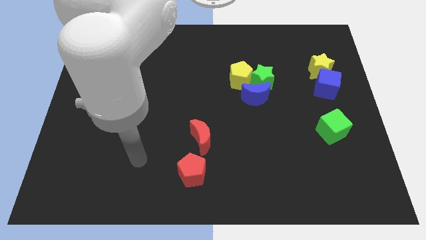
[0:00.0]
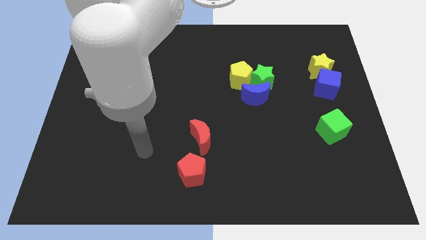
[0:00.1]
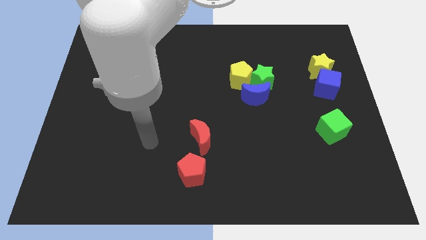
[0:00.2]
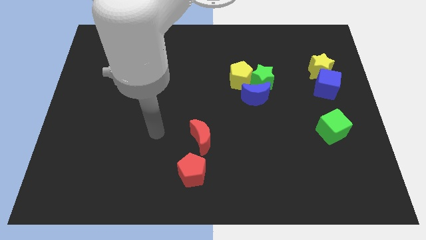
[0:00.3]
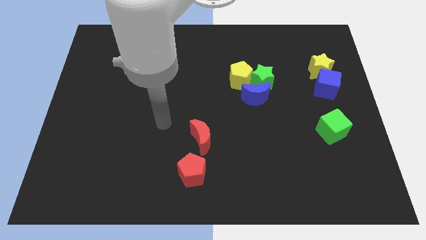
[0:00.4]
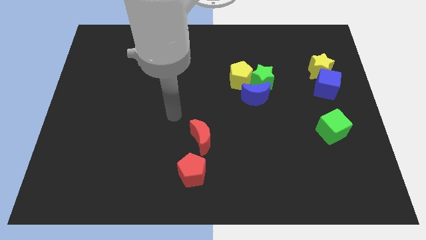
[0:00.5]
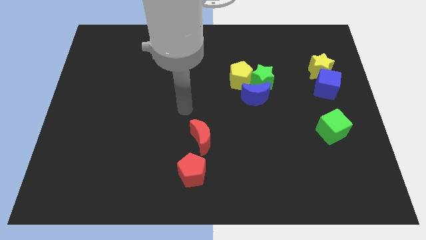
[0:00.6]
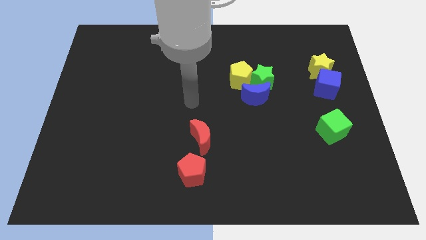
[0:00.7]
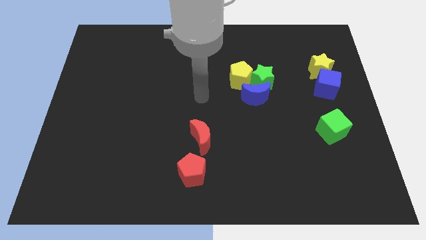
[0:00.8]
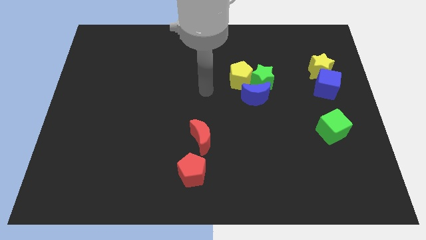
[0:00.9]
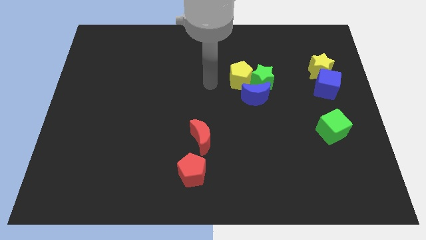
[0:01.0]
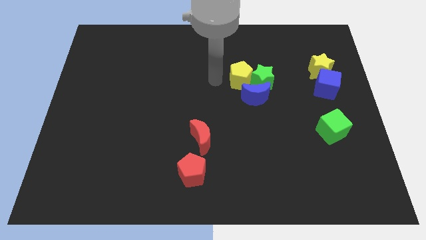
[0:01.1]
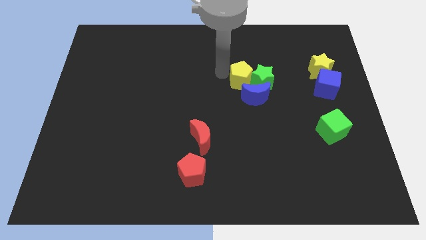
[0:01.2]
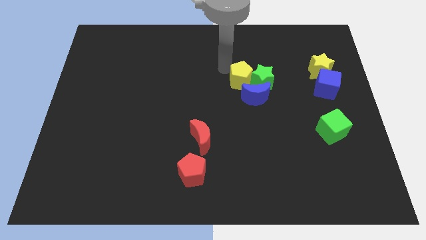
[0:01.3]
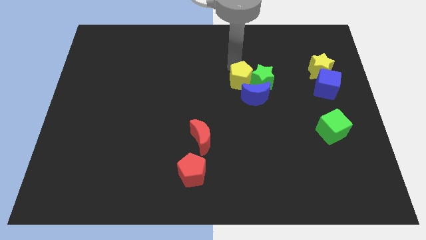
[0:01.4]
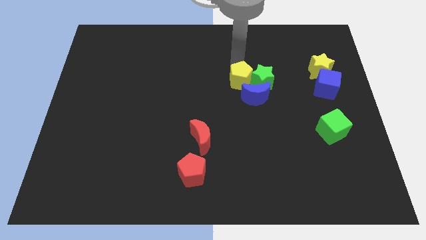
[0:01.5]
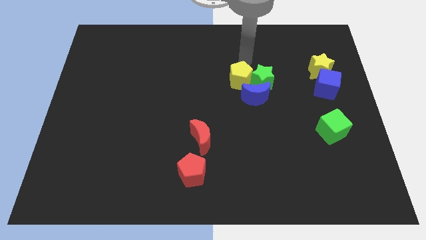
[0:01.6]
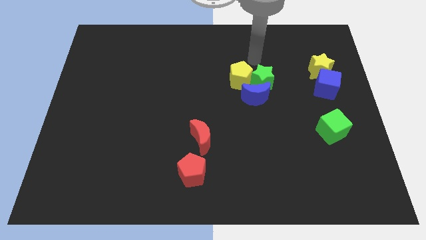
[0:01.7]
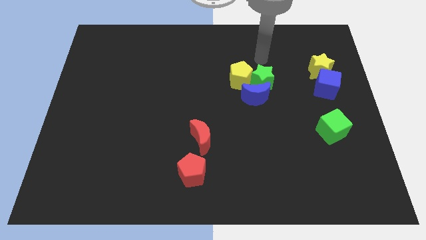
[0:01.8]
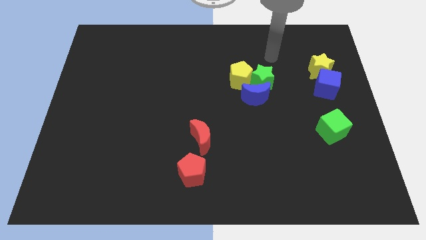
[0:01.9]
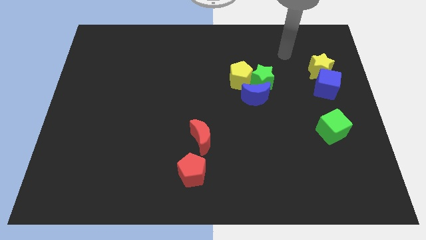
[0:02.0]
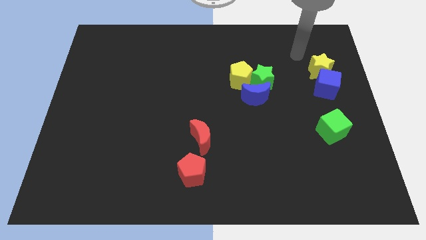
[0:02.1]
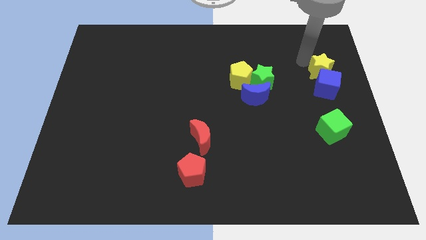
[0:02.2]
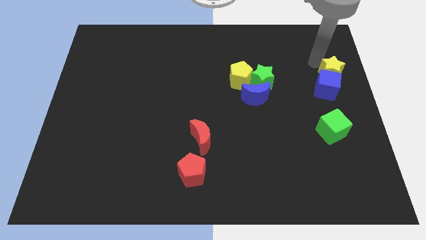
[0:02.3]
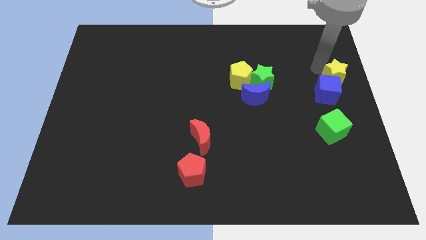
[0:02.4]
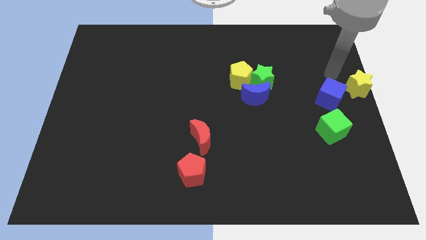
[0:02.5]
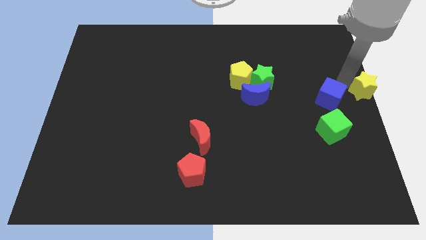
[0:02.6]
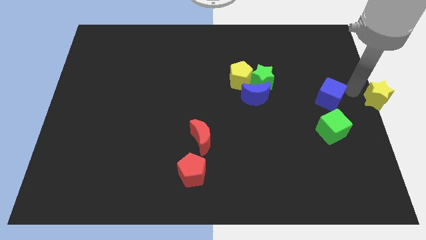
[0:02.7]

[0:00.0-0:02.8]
separate the blue cube from the yellow star

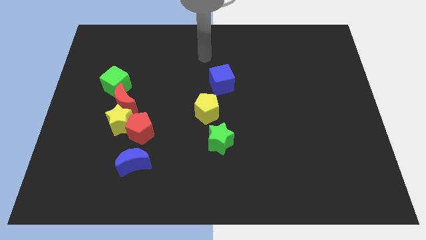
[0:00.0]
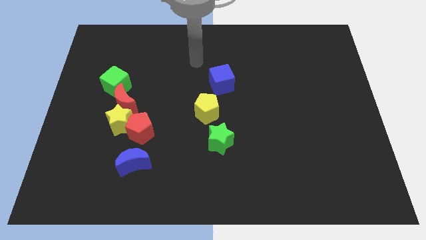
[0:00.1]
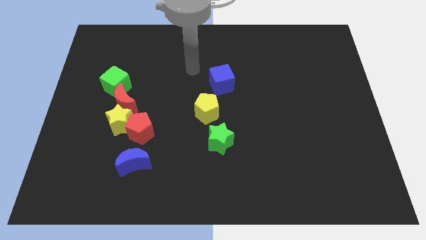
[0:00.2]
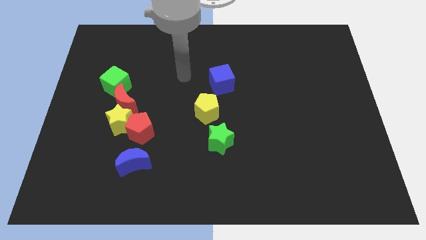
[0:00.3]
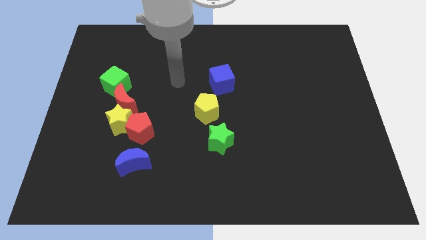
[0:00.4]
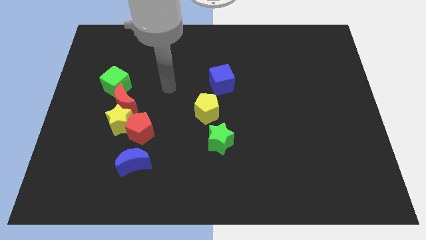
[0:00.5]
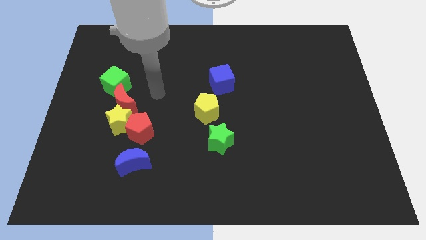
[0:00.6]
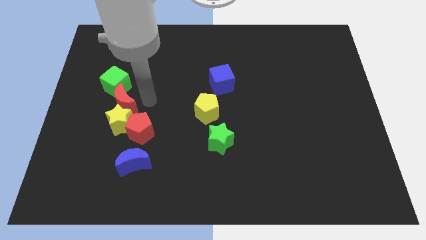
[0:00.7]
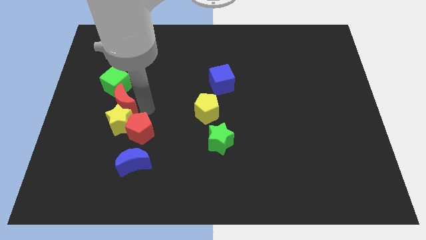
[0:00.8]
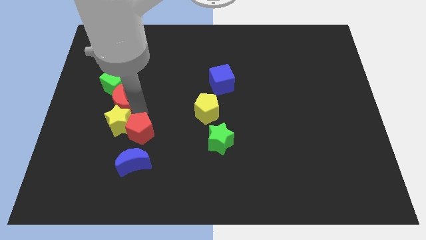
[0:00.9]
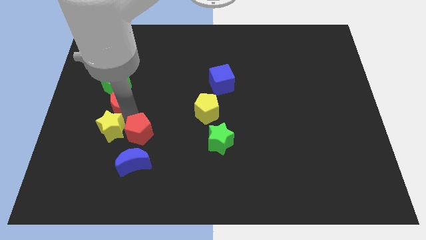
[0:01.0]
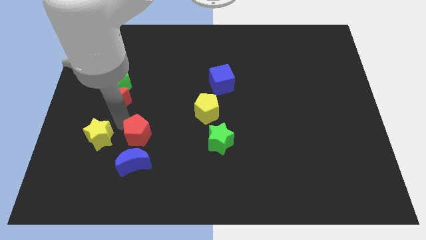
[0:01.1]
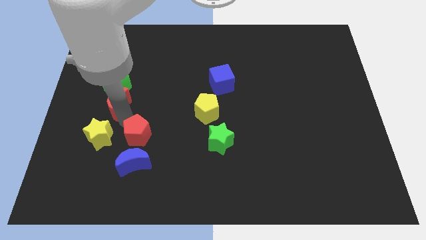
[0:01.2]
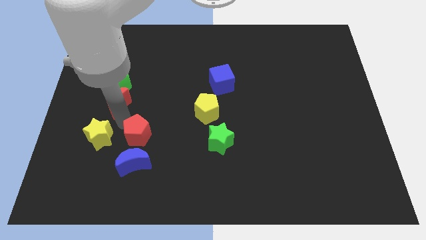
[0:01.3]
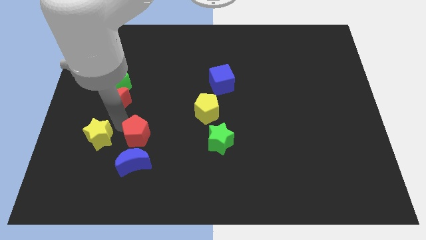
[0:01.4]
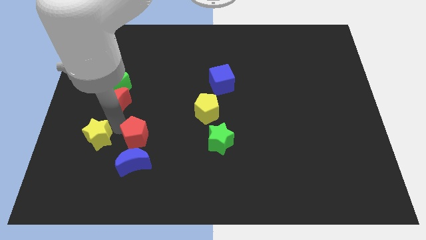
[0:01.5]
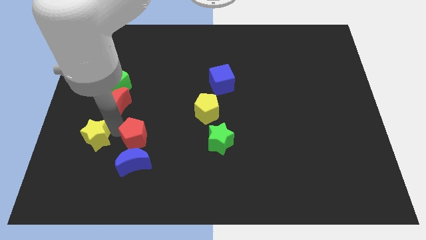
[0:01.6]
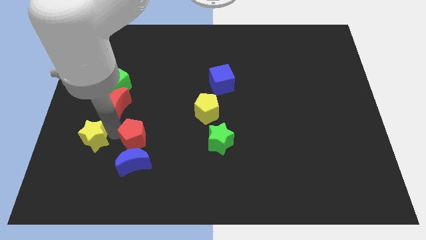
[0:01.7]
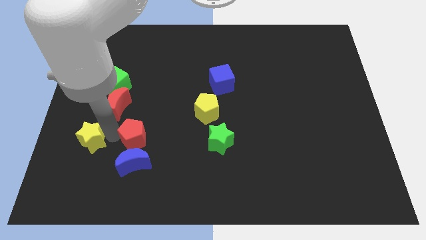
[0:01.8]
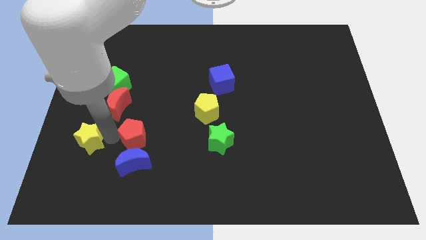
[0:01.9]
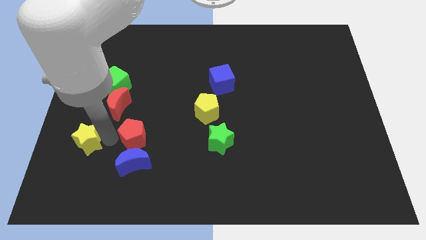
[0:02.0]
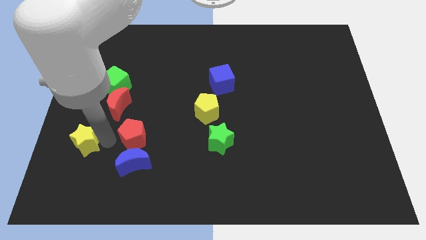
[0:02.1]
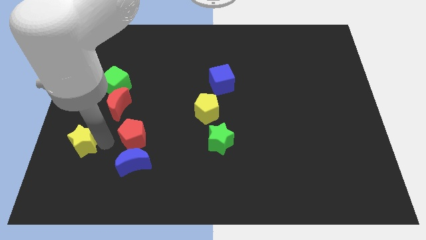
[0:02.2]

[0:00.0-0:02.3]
move the yellow star away from the red pentagon and red moon

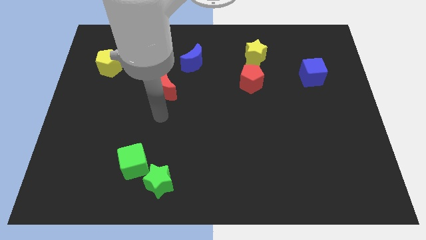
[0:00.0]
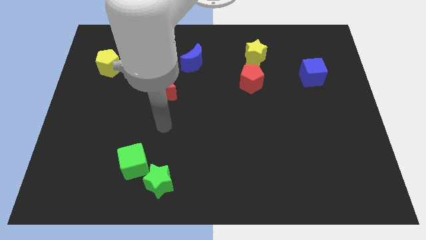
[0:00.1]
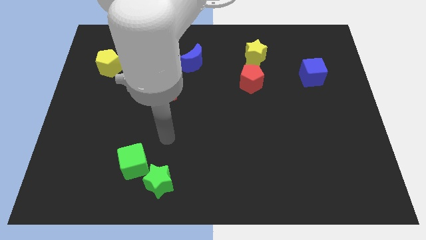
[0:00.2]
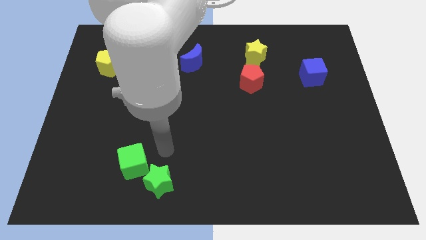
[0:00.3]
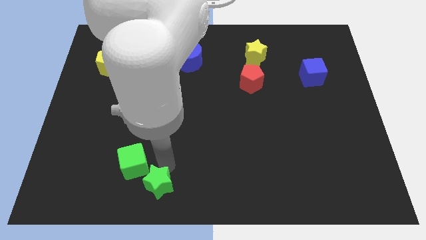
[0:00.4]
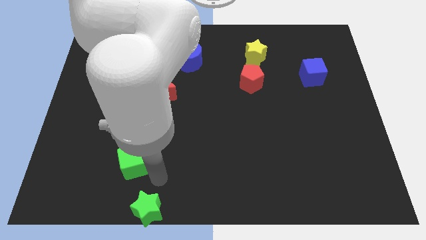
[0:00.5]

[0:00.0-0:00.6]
move the green cube away from the green star

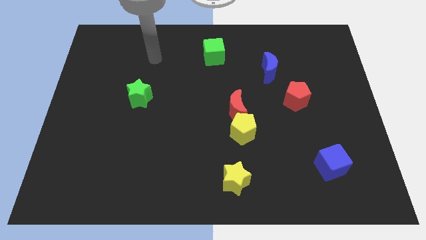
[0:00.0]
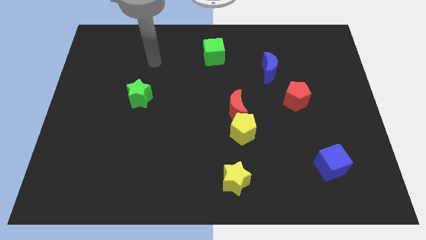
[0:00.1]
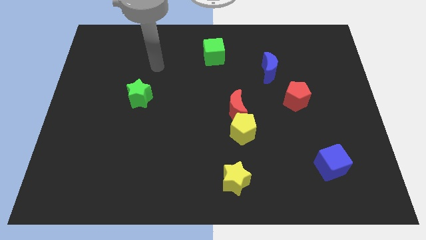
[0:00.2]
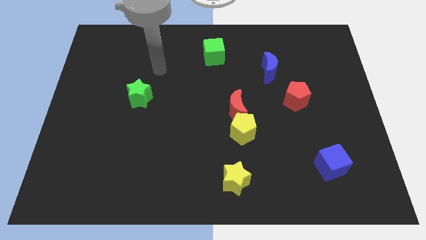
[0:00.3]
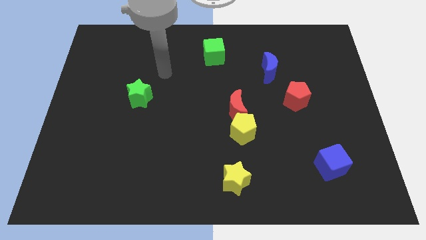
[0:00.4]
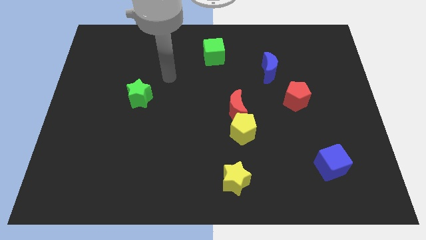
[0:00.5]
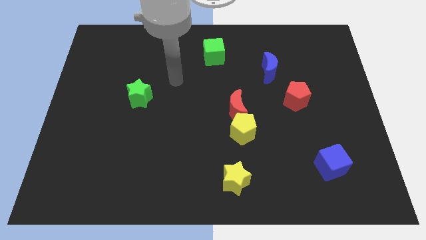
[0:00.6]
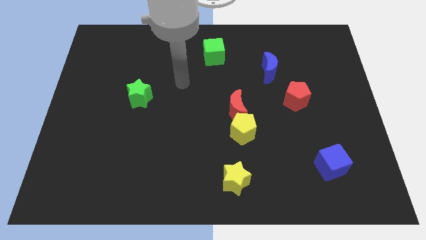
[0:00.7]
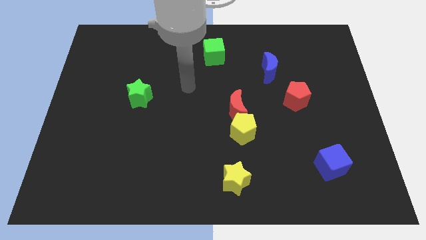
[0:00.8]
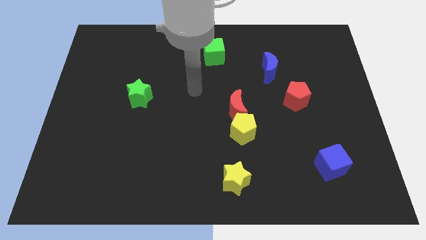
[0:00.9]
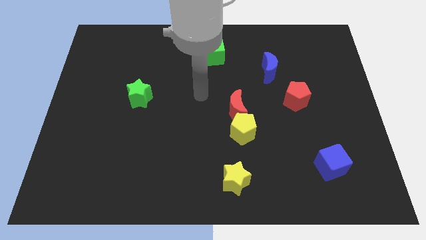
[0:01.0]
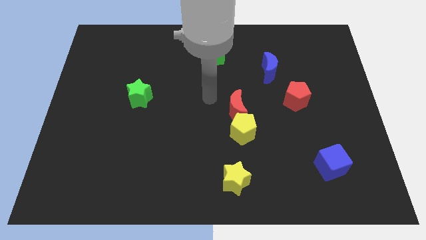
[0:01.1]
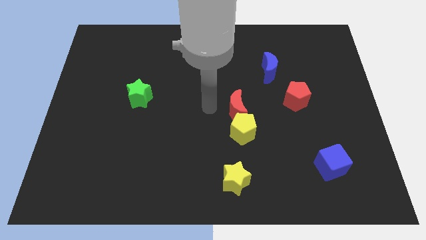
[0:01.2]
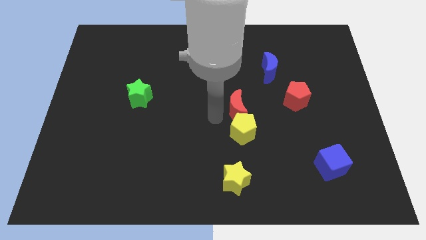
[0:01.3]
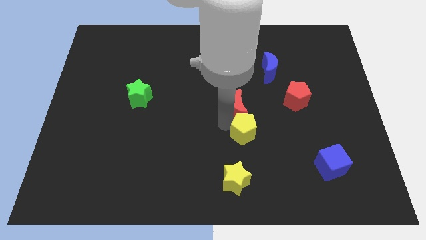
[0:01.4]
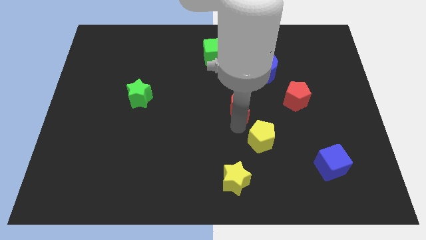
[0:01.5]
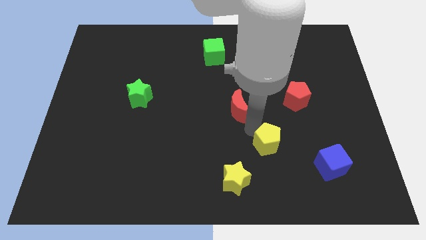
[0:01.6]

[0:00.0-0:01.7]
separate the red moon from the yellow pentagon

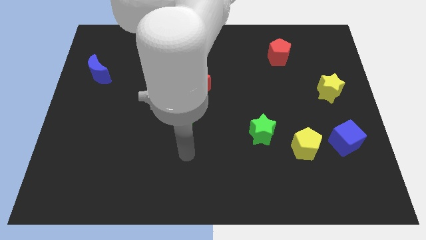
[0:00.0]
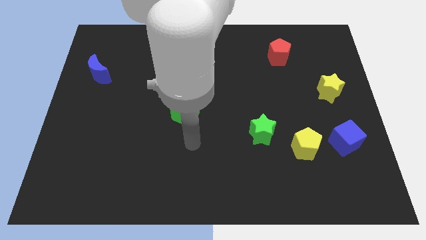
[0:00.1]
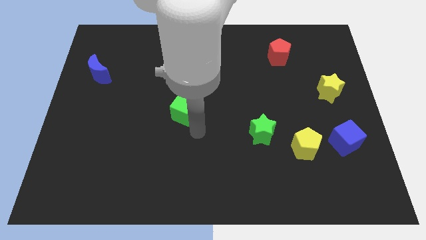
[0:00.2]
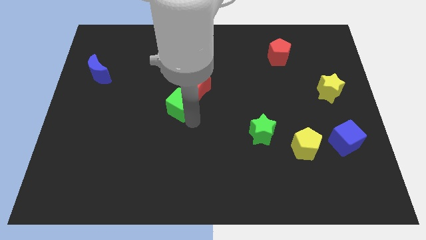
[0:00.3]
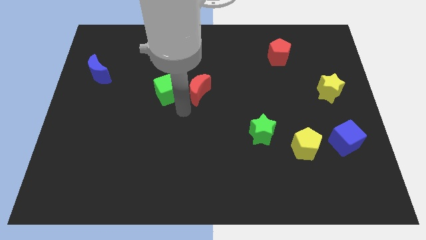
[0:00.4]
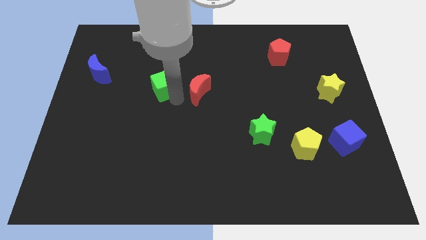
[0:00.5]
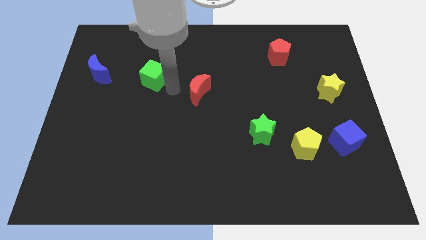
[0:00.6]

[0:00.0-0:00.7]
move the red moon away from the green cube

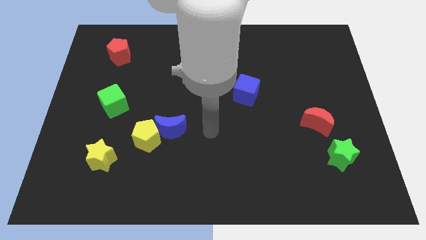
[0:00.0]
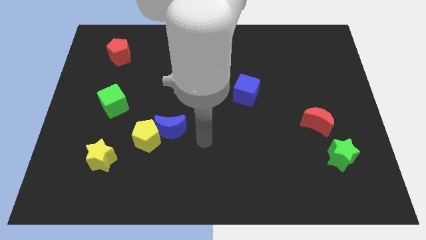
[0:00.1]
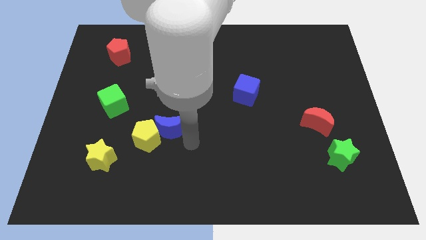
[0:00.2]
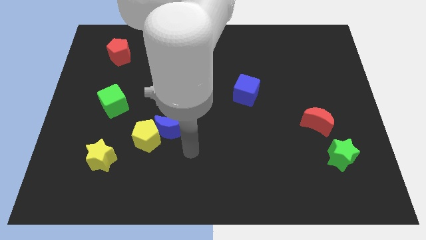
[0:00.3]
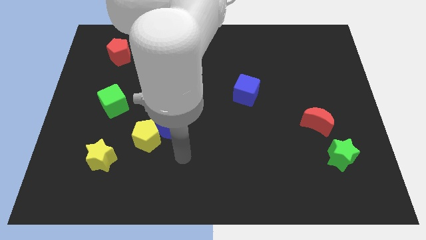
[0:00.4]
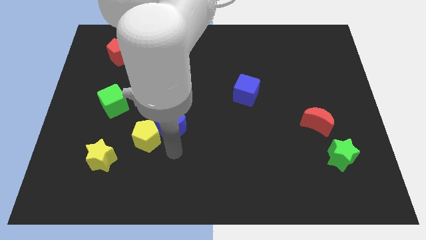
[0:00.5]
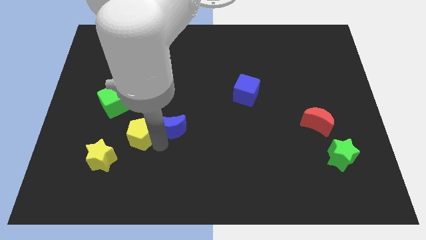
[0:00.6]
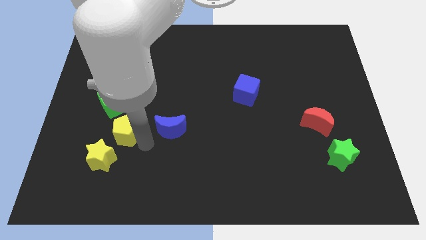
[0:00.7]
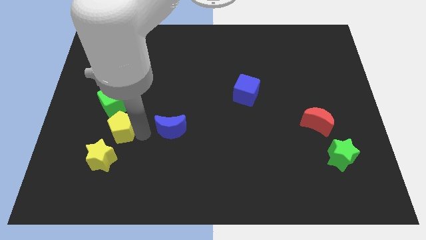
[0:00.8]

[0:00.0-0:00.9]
pull the blue moon apart from the yellow pentagon

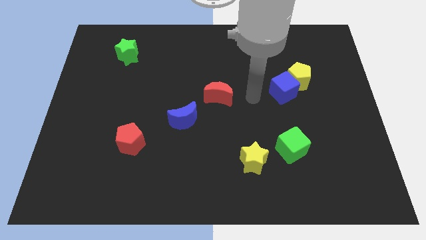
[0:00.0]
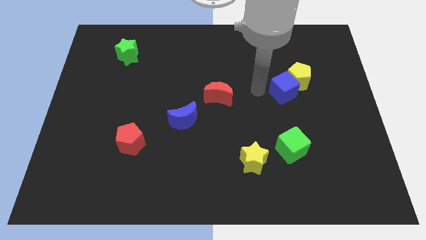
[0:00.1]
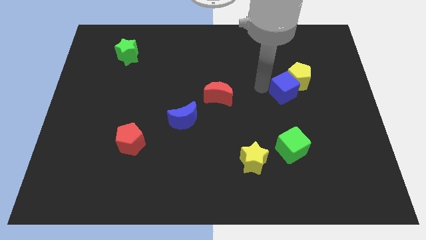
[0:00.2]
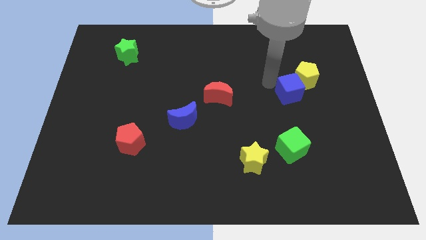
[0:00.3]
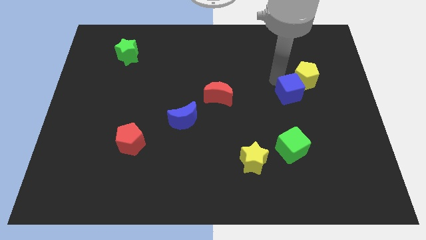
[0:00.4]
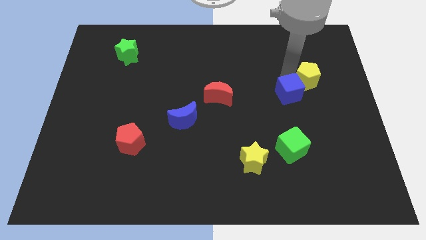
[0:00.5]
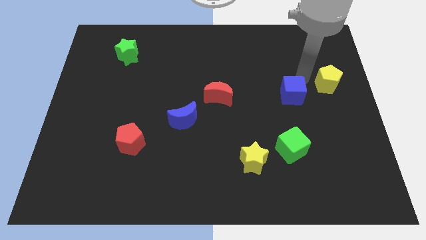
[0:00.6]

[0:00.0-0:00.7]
move the blue cube away from the yellow pentagon
